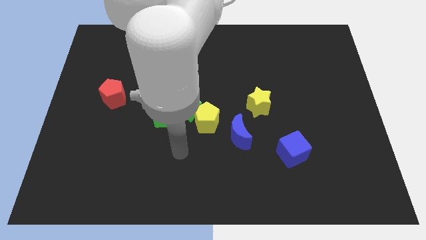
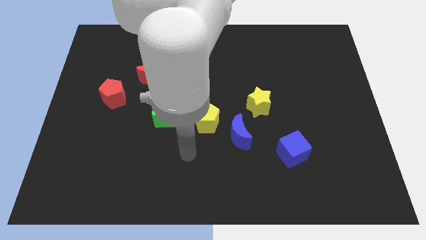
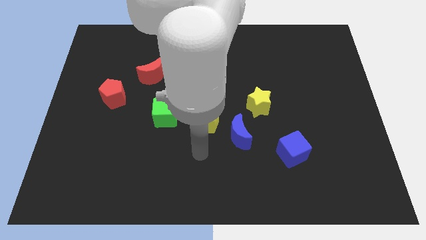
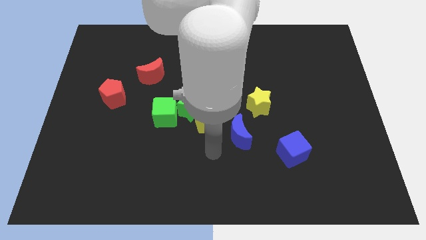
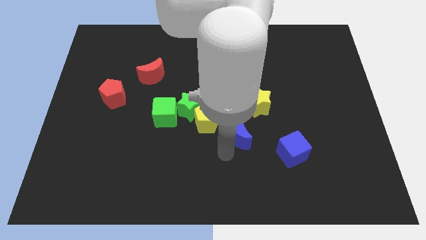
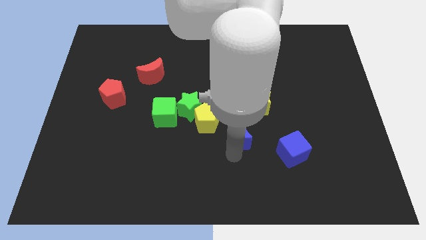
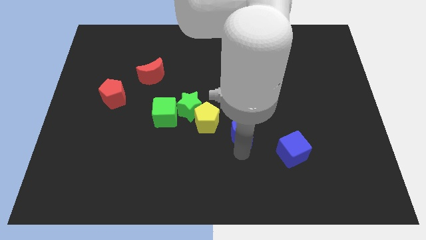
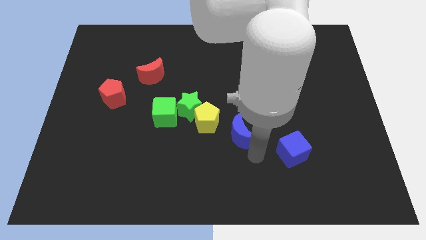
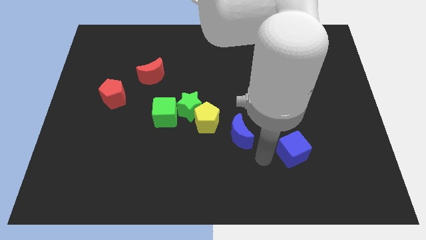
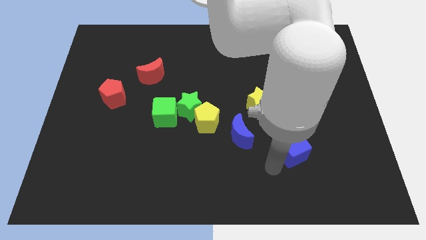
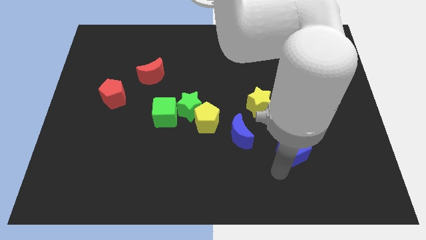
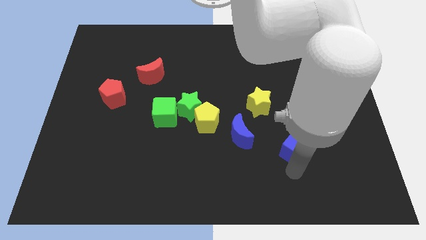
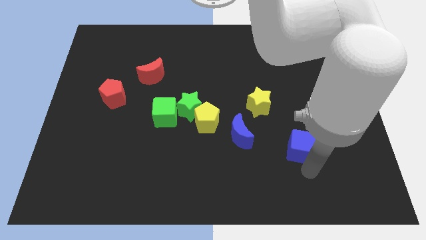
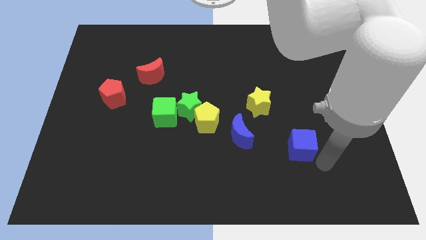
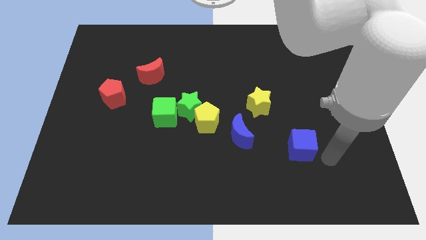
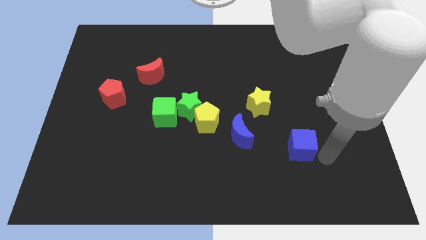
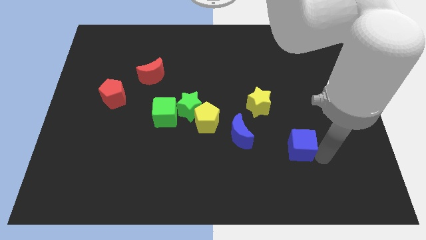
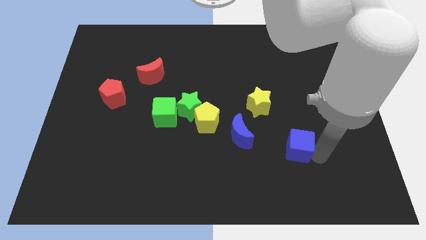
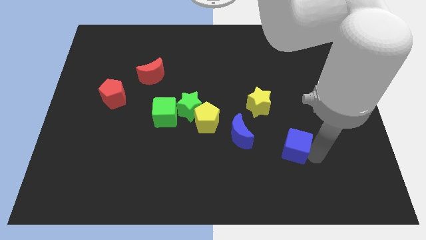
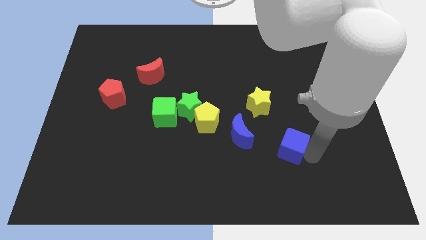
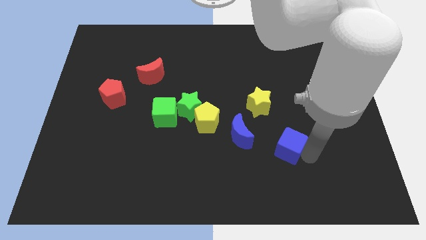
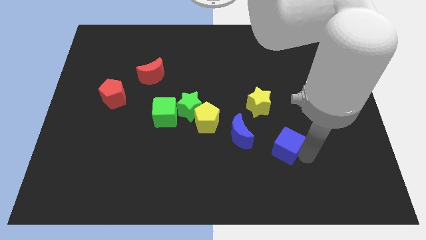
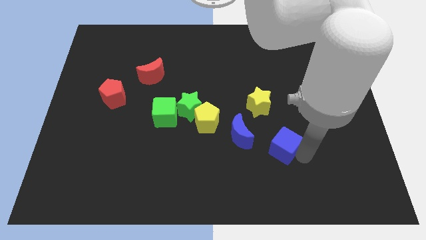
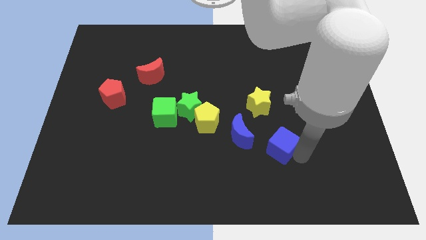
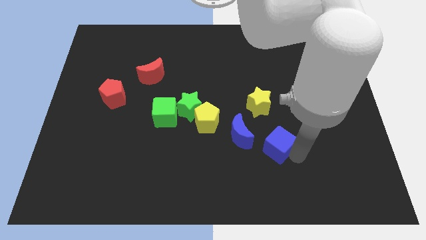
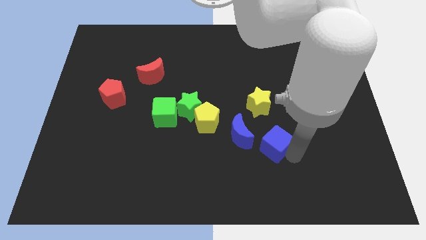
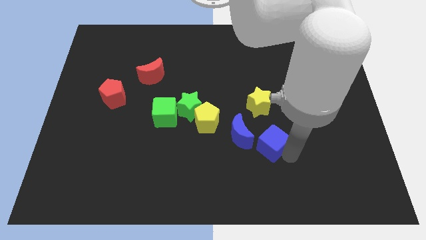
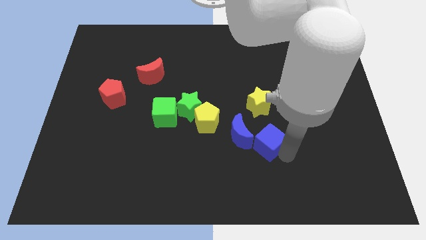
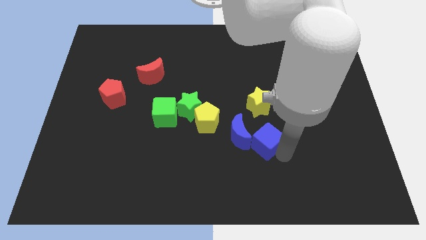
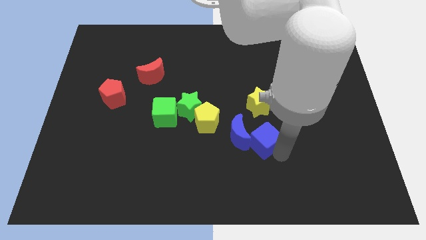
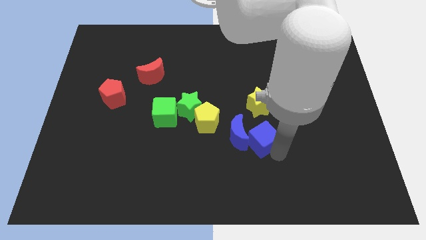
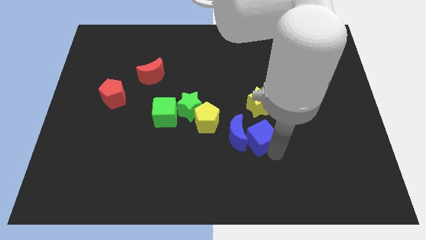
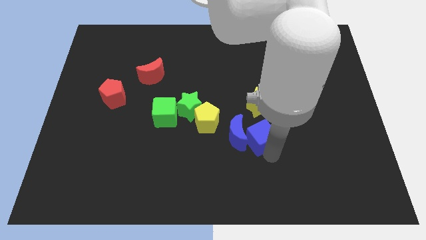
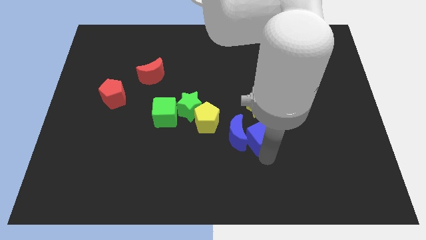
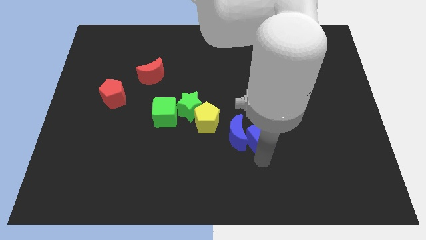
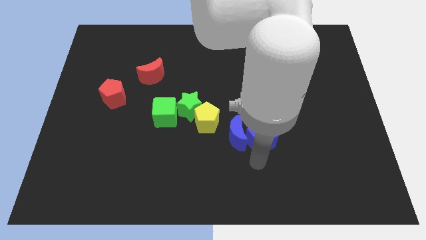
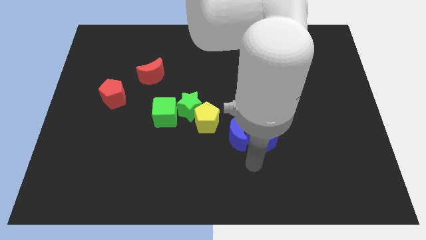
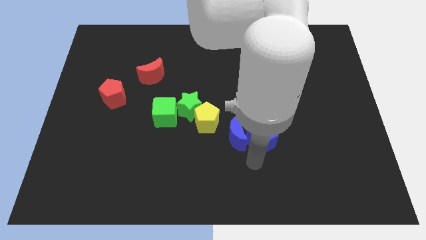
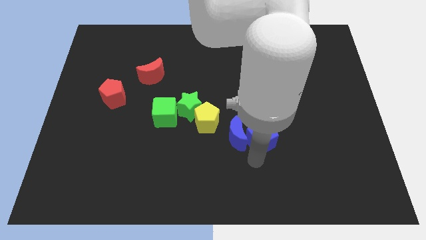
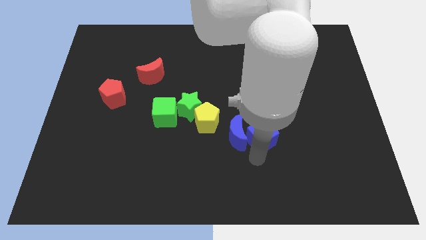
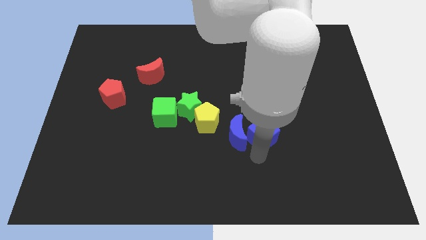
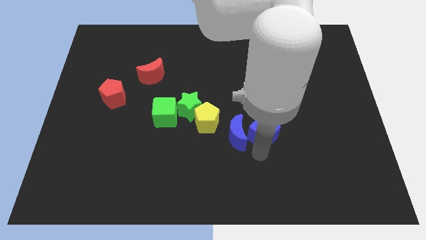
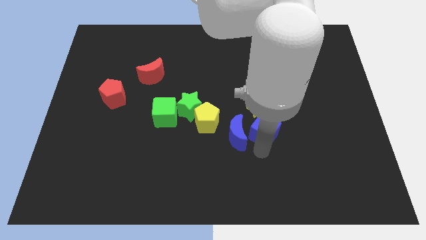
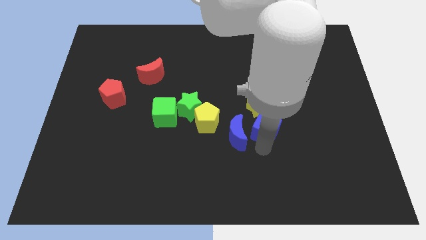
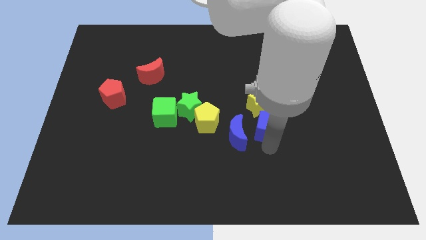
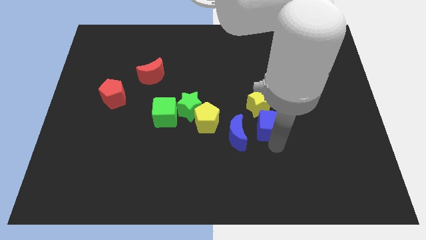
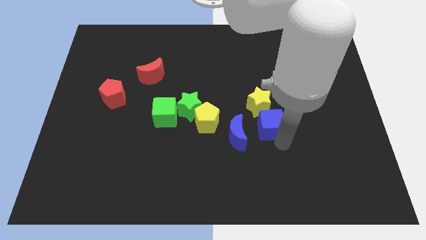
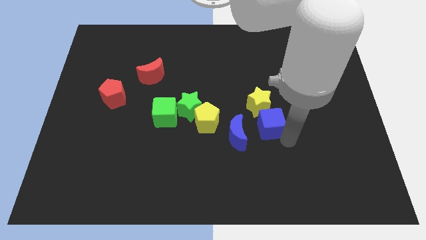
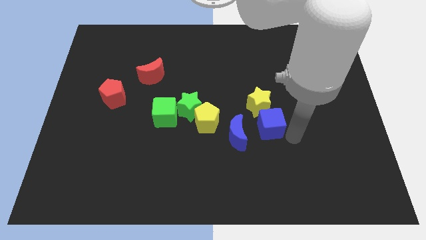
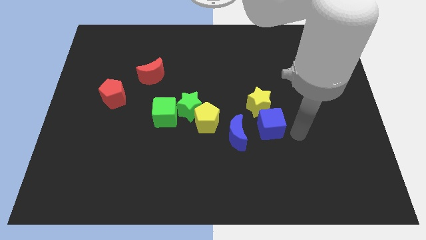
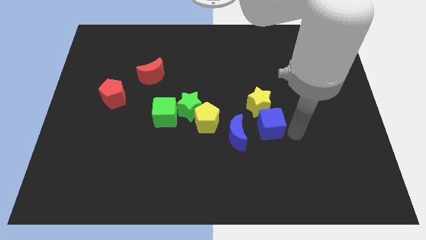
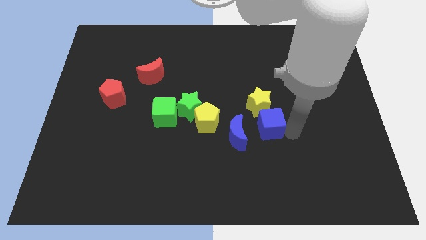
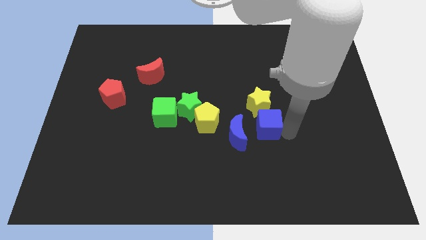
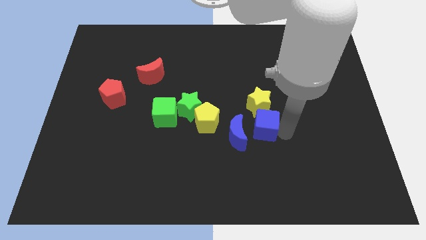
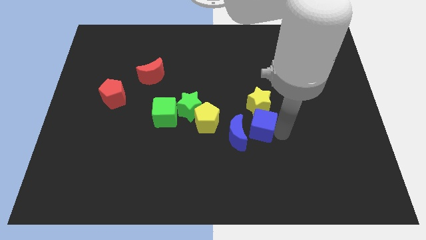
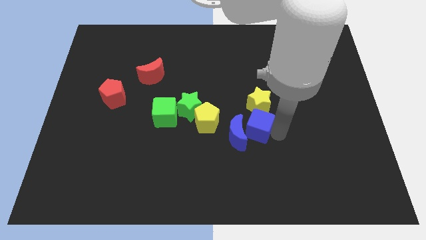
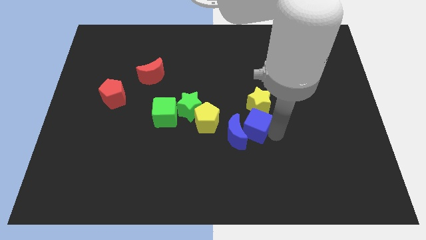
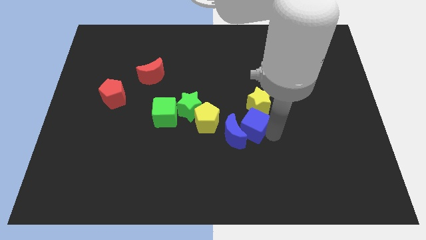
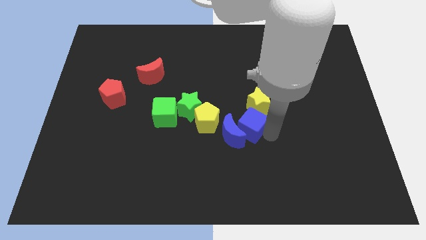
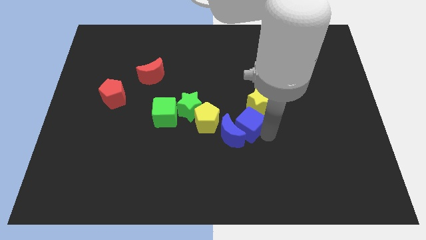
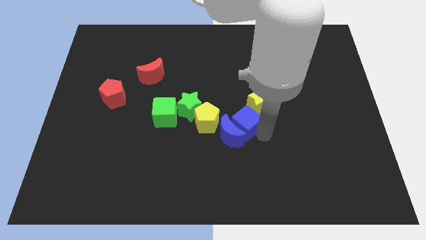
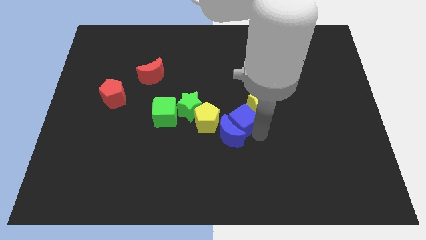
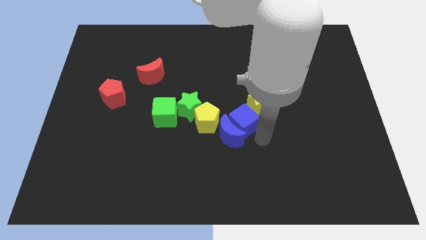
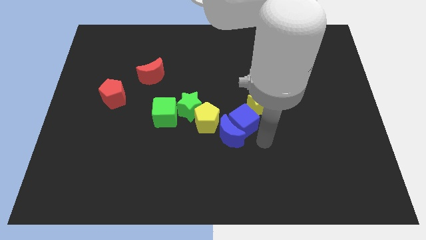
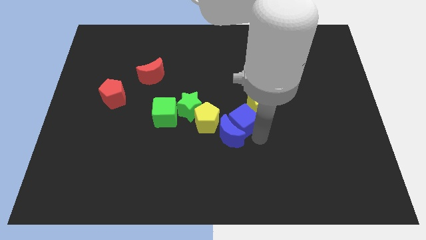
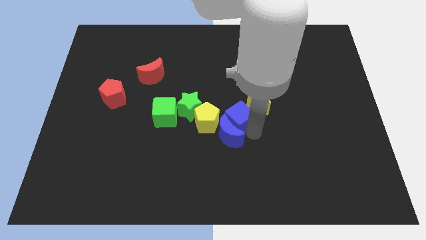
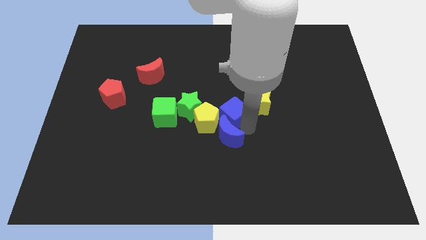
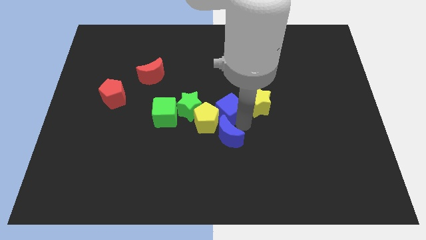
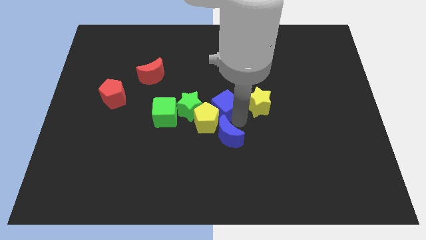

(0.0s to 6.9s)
move the blue cube above the yellow pentagon
